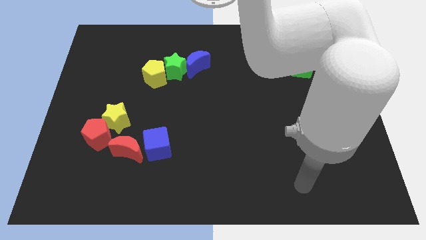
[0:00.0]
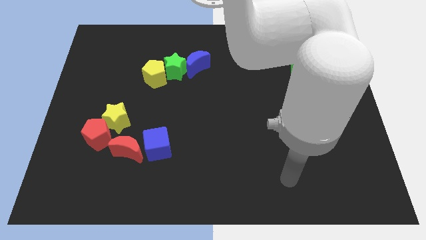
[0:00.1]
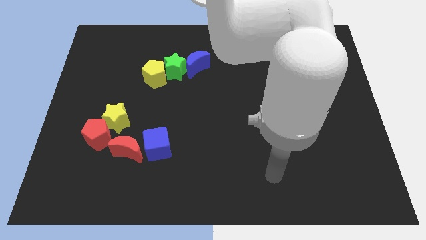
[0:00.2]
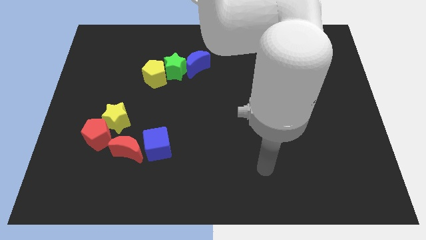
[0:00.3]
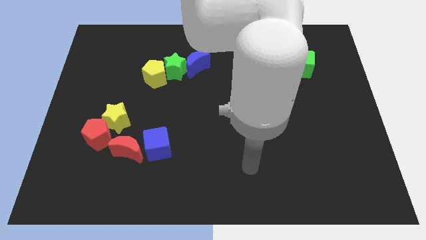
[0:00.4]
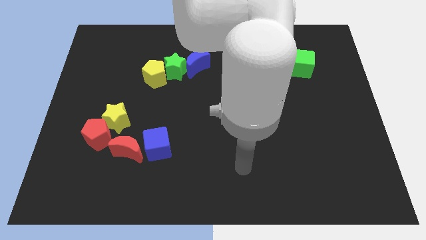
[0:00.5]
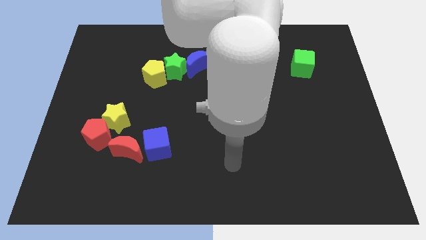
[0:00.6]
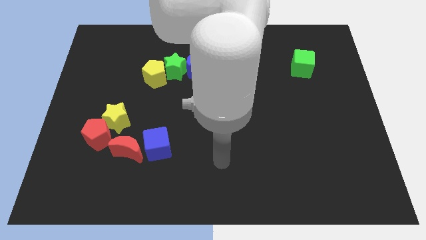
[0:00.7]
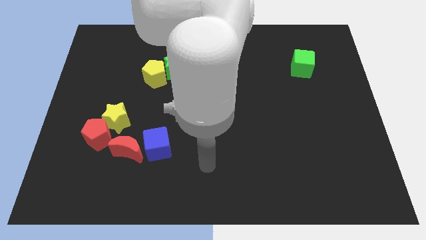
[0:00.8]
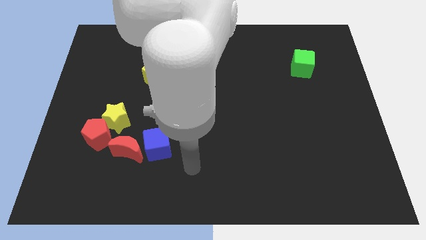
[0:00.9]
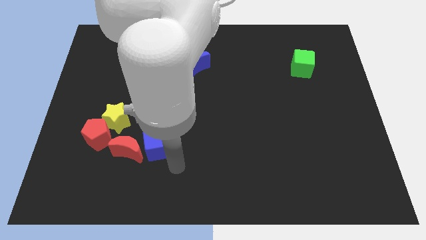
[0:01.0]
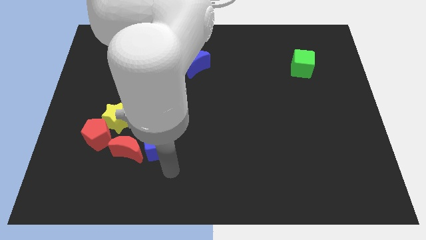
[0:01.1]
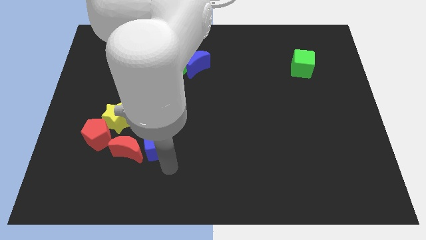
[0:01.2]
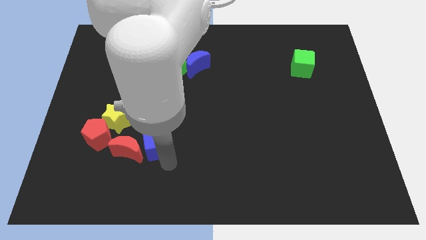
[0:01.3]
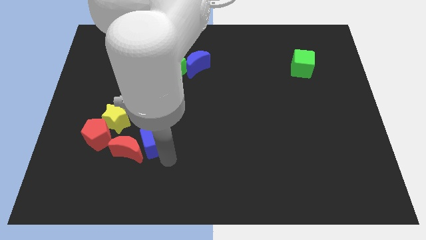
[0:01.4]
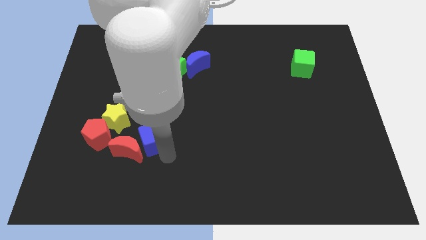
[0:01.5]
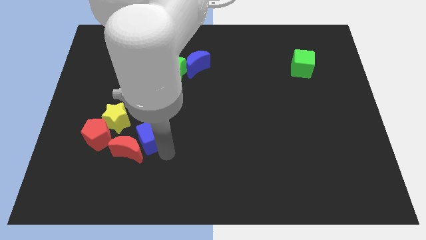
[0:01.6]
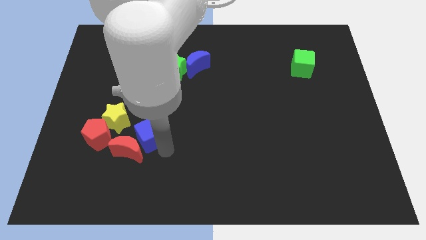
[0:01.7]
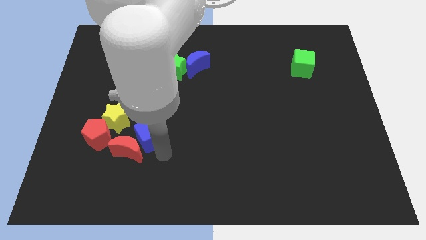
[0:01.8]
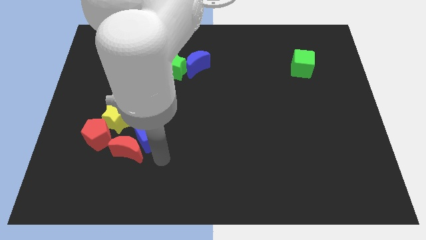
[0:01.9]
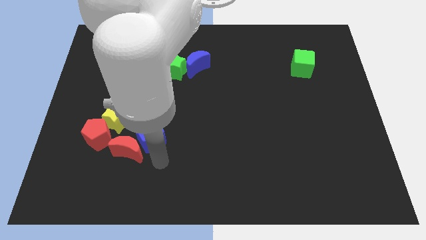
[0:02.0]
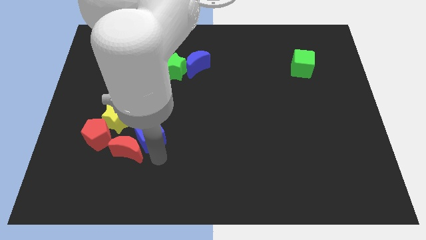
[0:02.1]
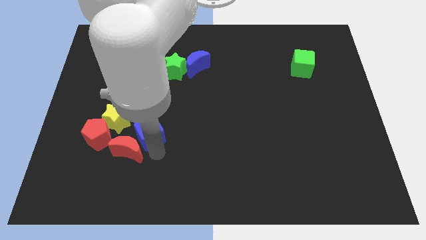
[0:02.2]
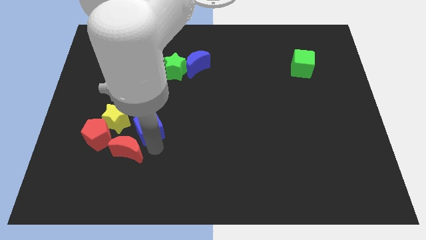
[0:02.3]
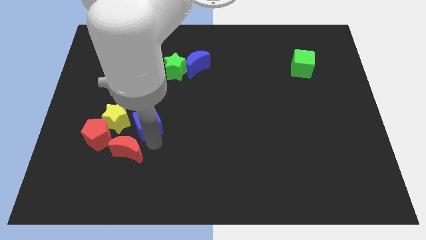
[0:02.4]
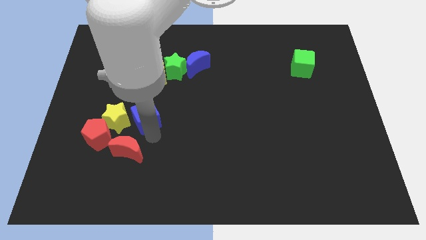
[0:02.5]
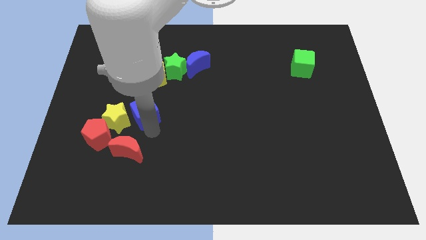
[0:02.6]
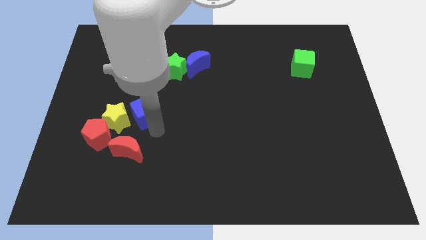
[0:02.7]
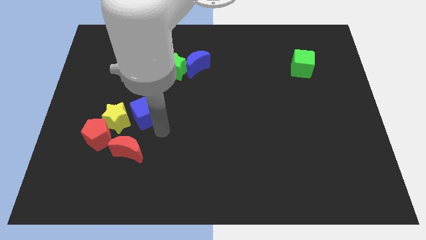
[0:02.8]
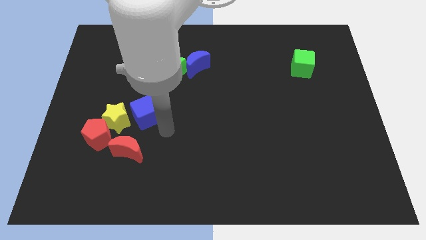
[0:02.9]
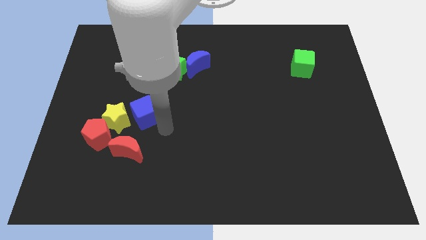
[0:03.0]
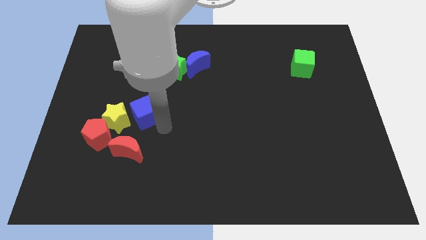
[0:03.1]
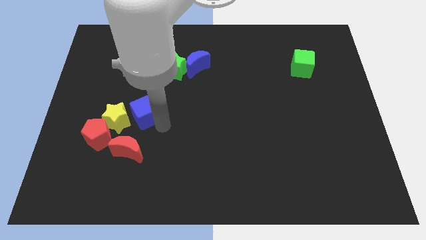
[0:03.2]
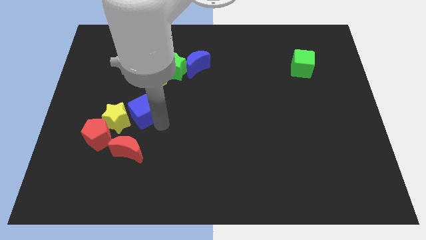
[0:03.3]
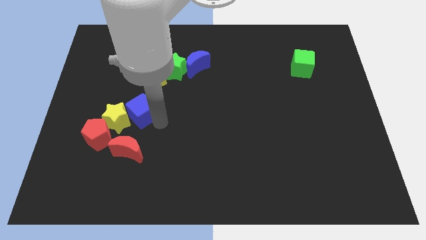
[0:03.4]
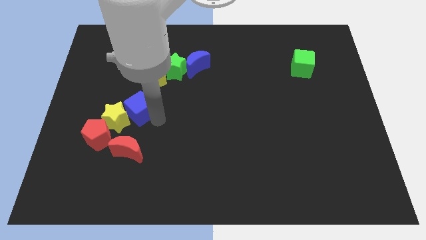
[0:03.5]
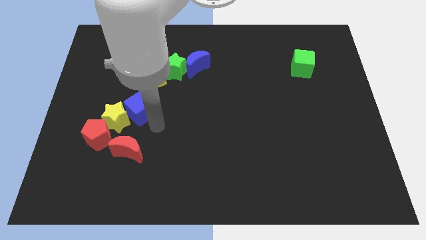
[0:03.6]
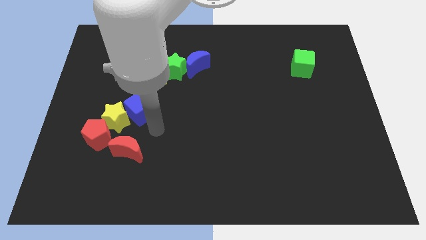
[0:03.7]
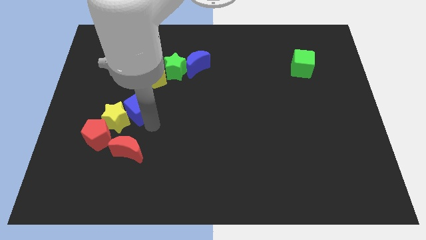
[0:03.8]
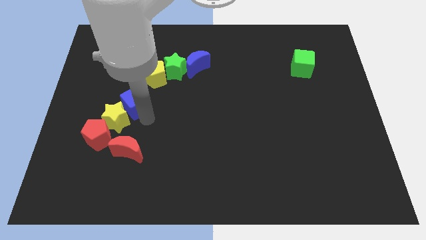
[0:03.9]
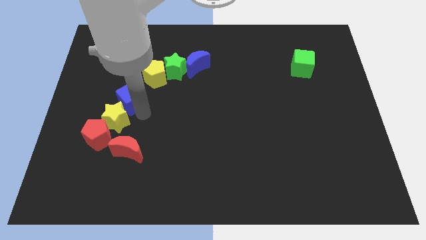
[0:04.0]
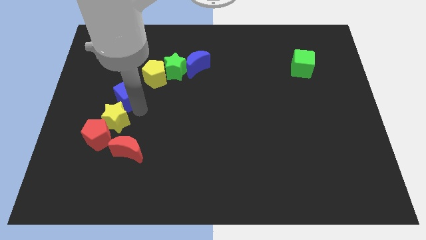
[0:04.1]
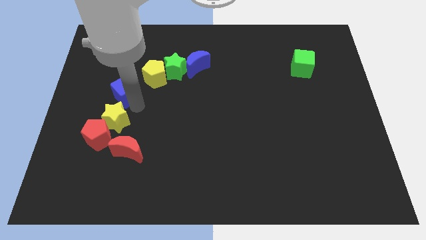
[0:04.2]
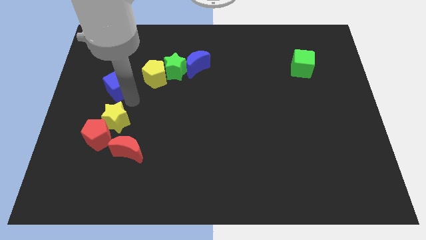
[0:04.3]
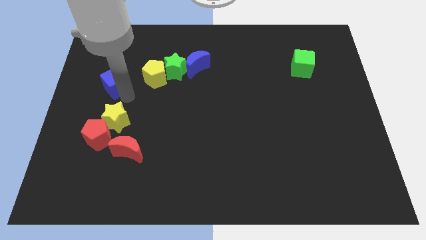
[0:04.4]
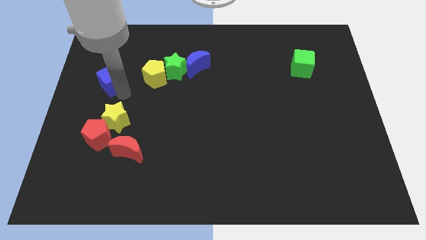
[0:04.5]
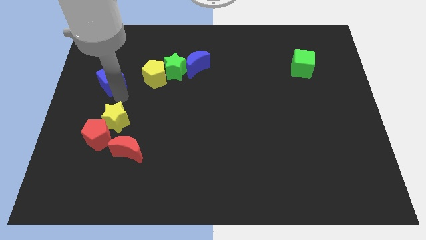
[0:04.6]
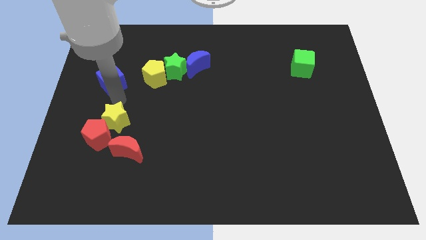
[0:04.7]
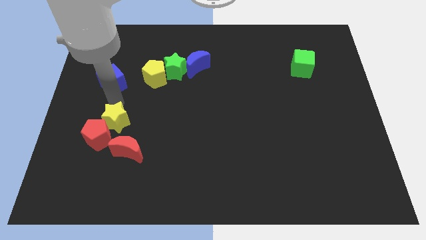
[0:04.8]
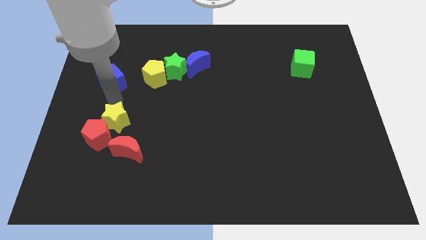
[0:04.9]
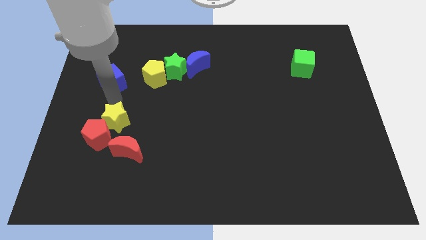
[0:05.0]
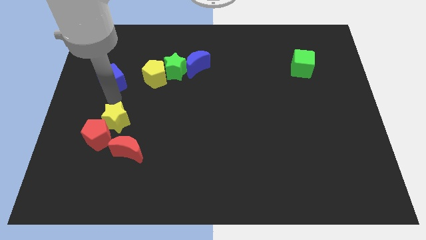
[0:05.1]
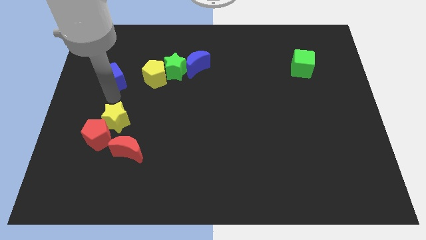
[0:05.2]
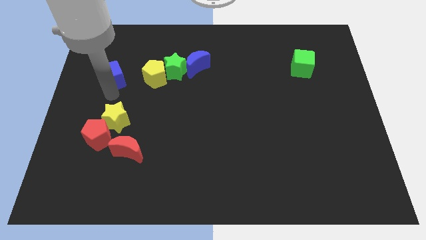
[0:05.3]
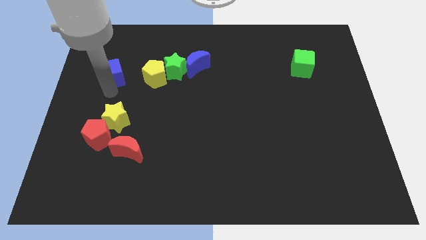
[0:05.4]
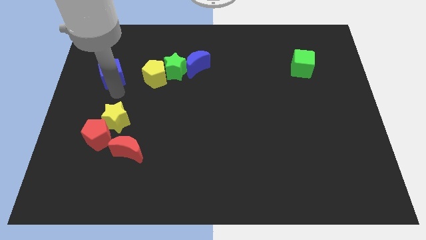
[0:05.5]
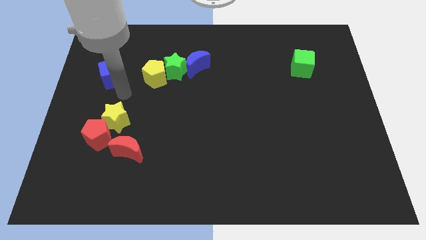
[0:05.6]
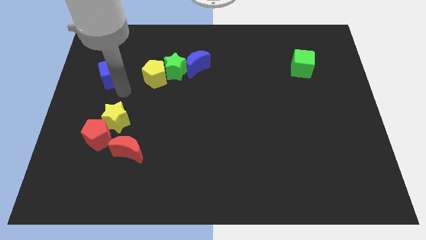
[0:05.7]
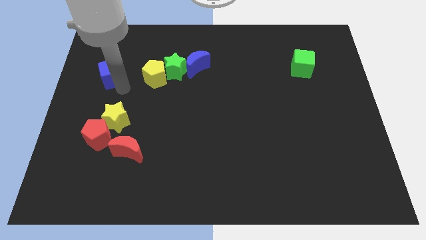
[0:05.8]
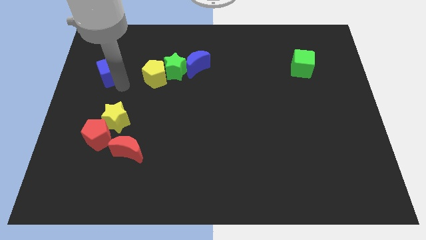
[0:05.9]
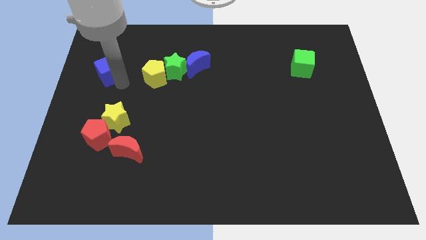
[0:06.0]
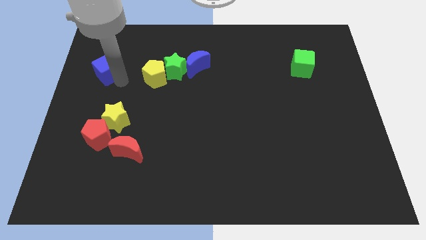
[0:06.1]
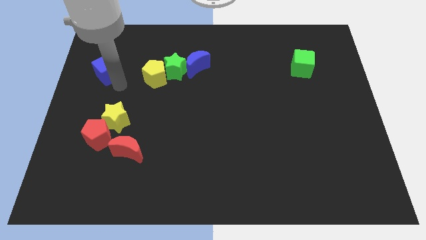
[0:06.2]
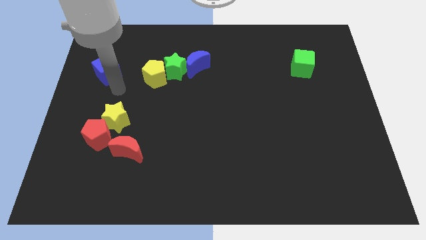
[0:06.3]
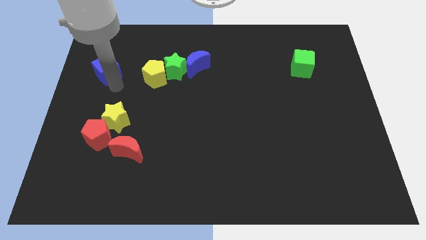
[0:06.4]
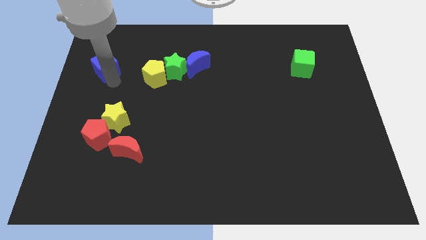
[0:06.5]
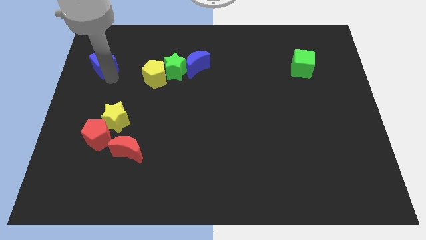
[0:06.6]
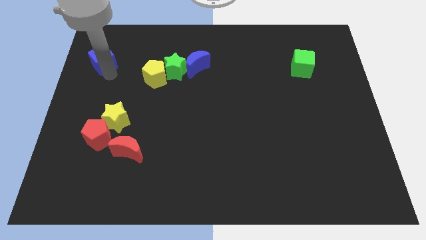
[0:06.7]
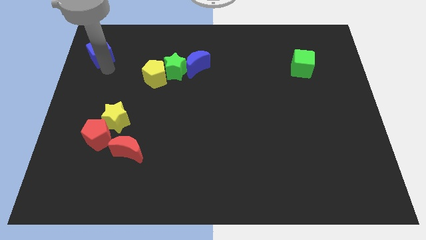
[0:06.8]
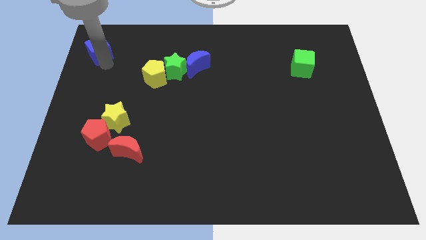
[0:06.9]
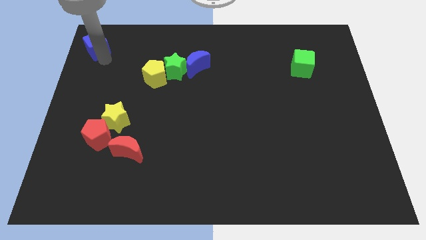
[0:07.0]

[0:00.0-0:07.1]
put the blue cube to the top left of the board
